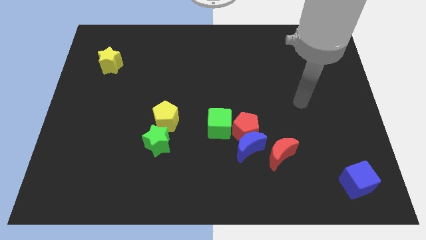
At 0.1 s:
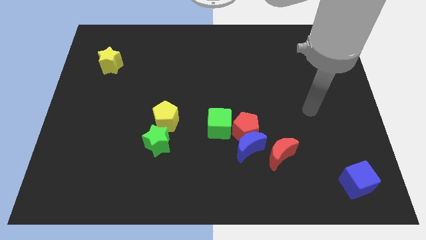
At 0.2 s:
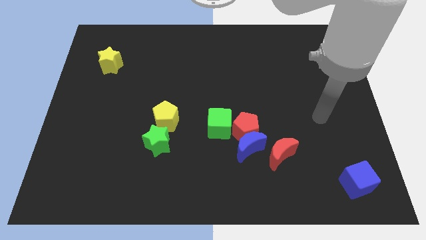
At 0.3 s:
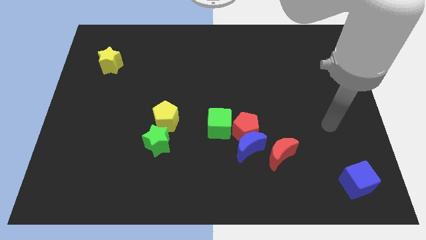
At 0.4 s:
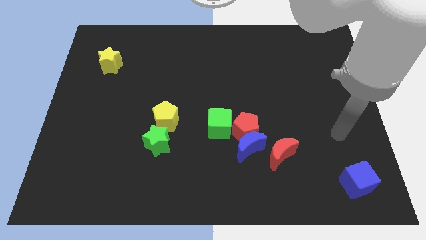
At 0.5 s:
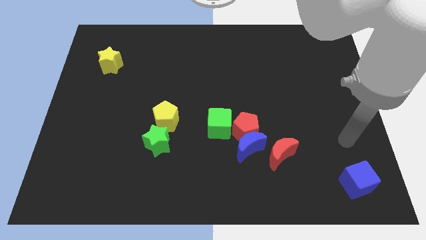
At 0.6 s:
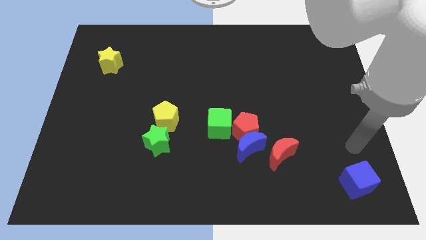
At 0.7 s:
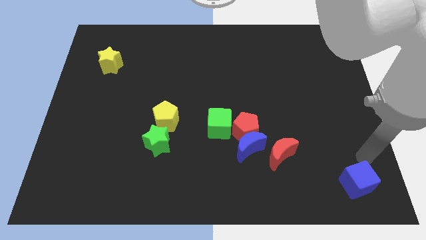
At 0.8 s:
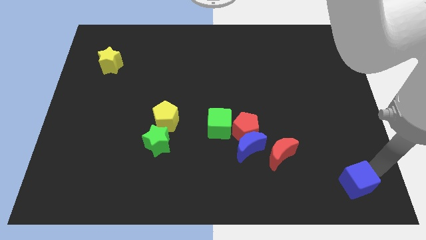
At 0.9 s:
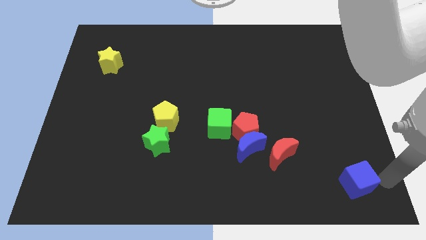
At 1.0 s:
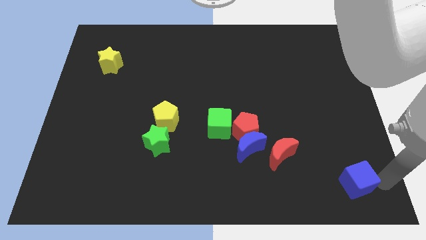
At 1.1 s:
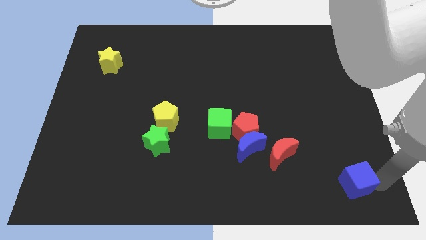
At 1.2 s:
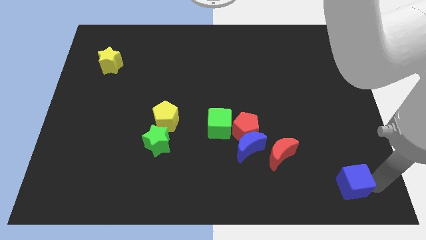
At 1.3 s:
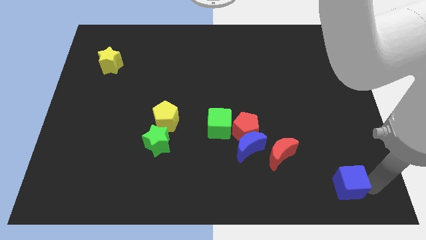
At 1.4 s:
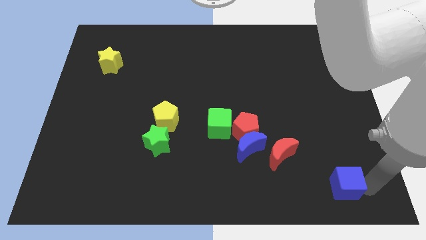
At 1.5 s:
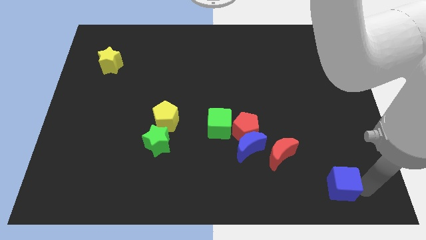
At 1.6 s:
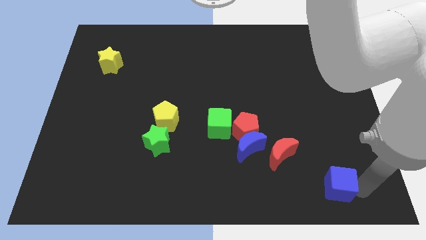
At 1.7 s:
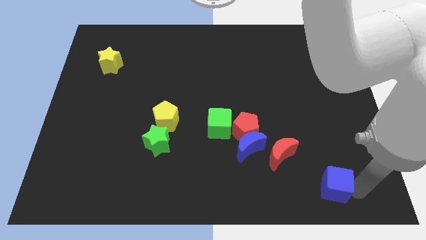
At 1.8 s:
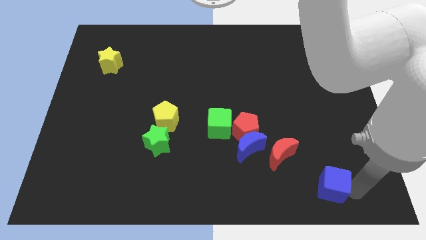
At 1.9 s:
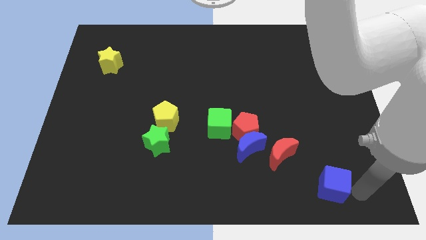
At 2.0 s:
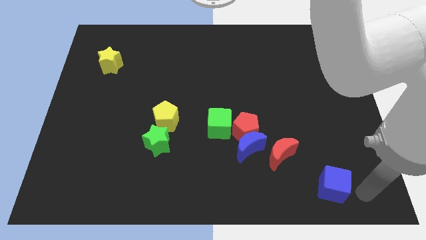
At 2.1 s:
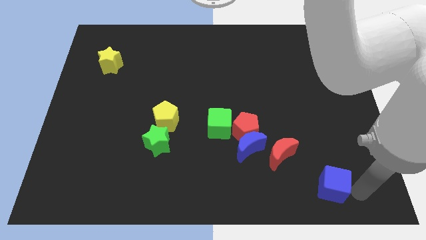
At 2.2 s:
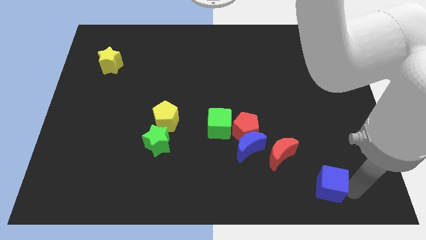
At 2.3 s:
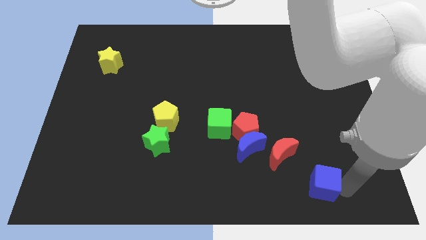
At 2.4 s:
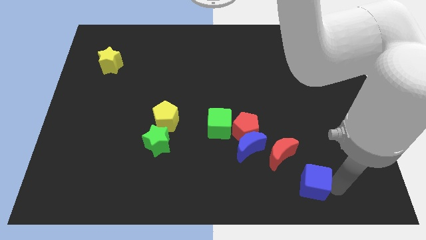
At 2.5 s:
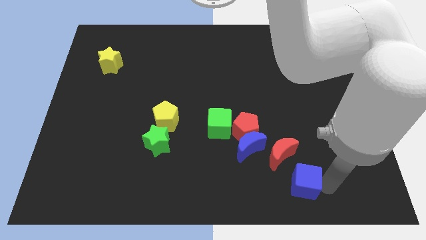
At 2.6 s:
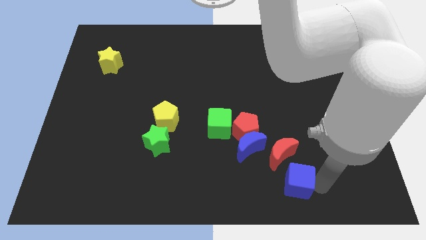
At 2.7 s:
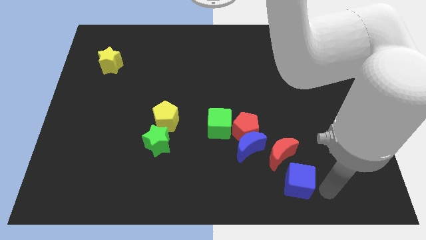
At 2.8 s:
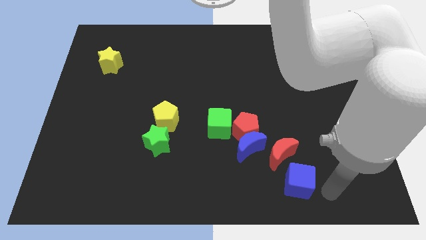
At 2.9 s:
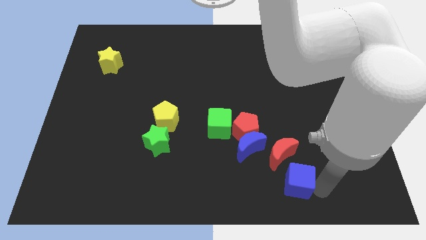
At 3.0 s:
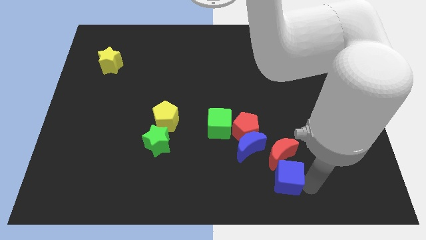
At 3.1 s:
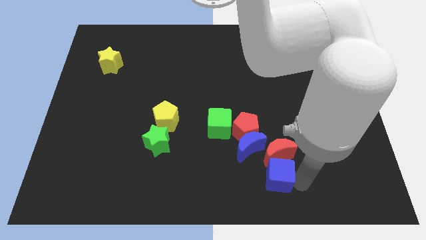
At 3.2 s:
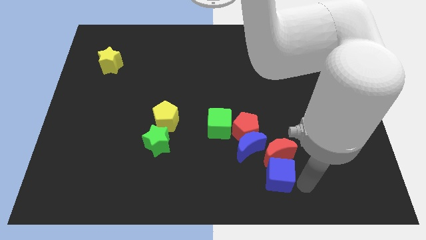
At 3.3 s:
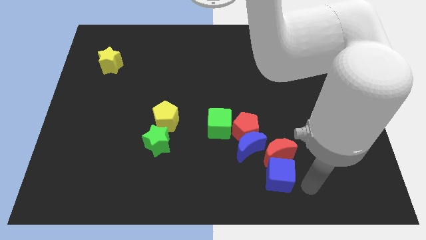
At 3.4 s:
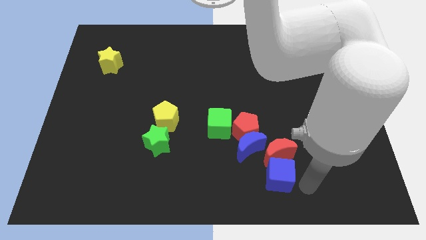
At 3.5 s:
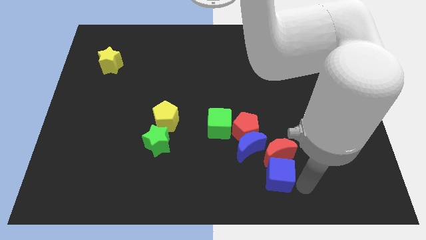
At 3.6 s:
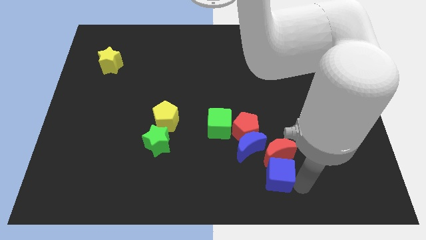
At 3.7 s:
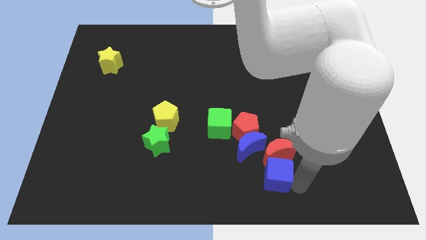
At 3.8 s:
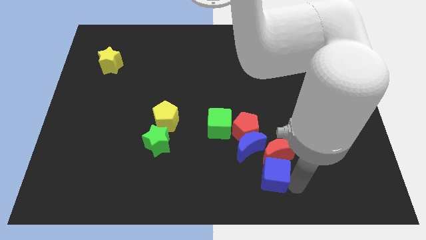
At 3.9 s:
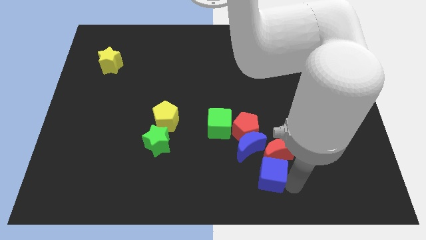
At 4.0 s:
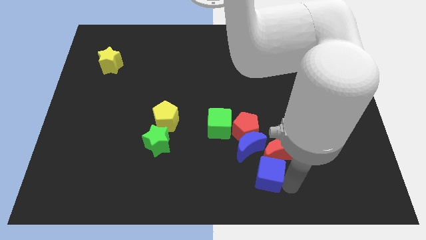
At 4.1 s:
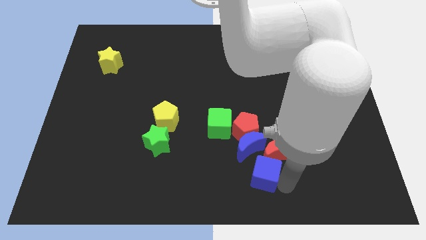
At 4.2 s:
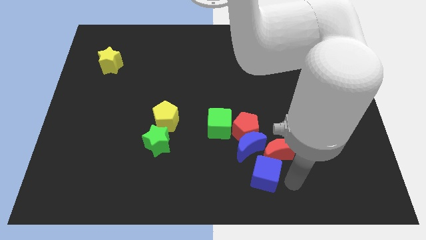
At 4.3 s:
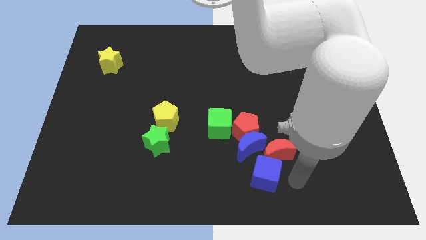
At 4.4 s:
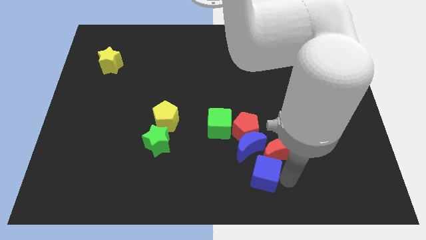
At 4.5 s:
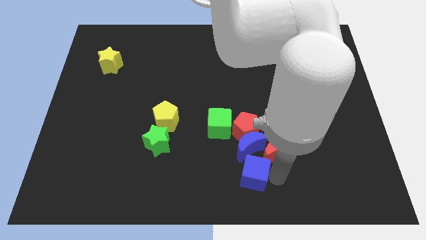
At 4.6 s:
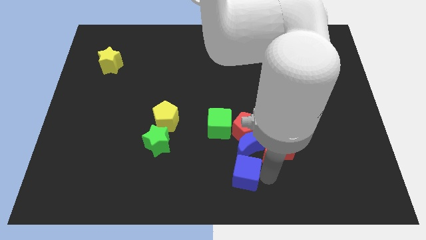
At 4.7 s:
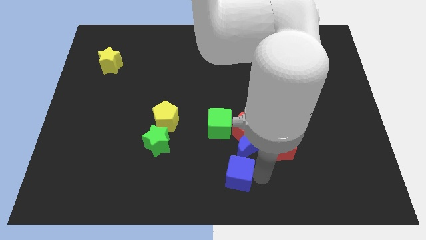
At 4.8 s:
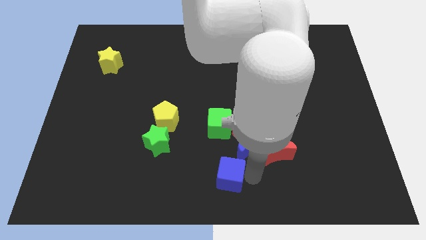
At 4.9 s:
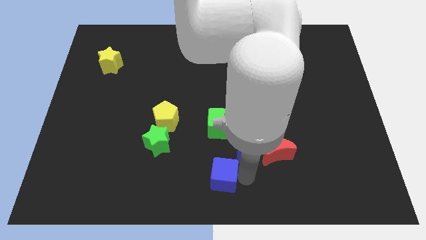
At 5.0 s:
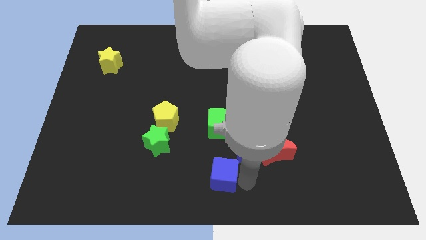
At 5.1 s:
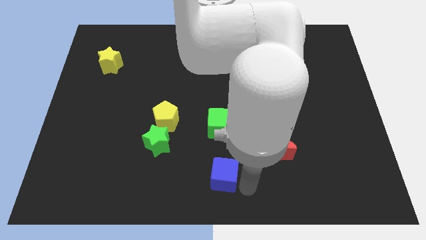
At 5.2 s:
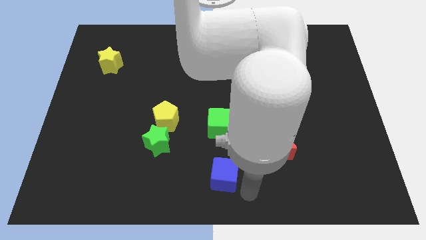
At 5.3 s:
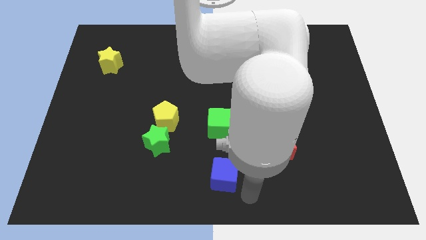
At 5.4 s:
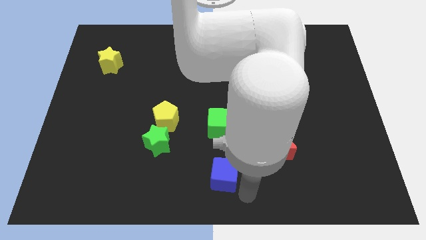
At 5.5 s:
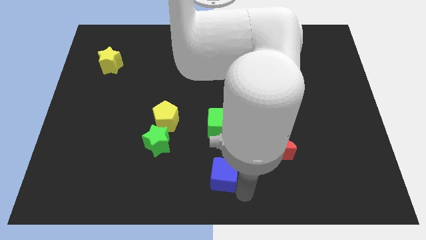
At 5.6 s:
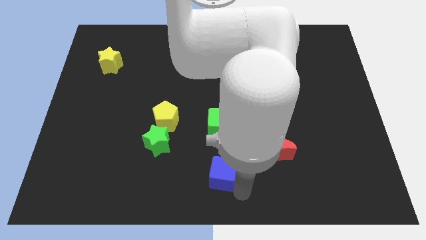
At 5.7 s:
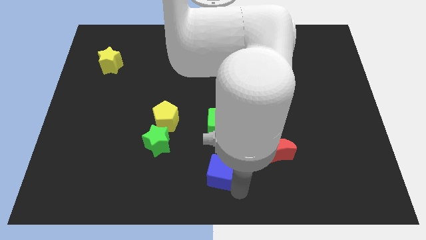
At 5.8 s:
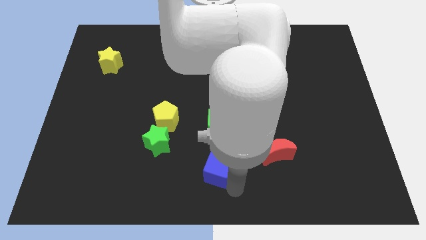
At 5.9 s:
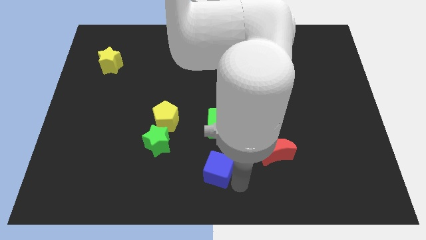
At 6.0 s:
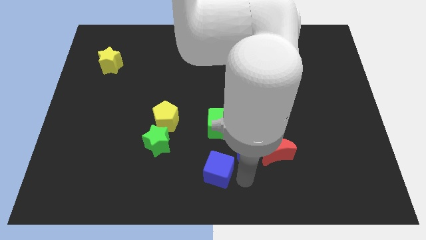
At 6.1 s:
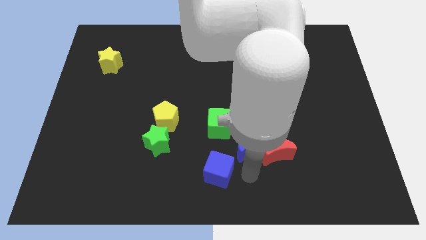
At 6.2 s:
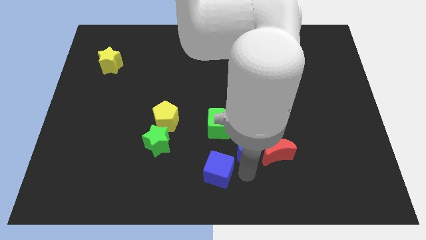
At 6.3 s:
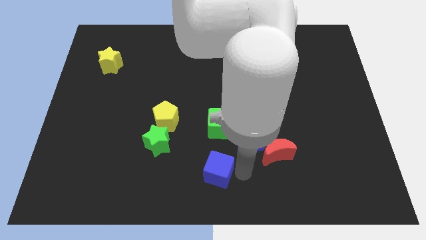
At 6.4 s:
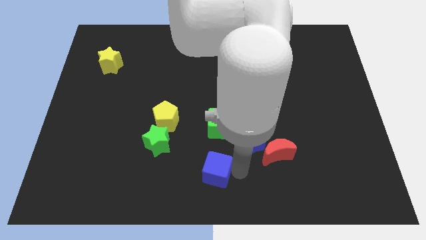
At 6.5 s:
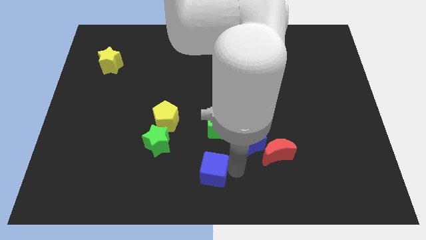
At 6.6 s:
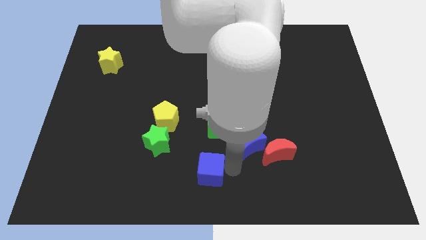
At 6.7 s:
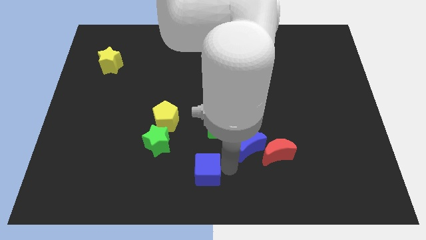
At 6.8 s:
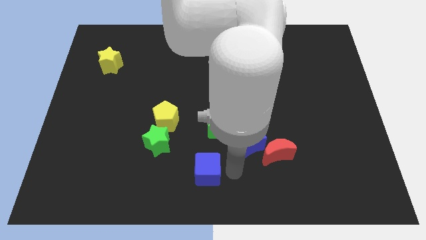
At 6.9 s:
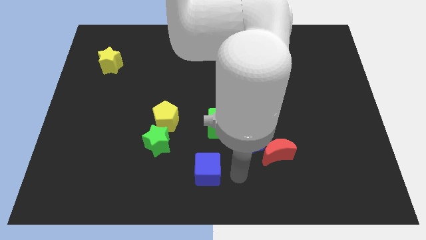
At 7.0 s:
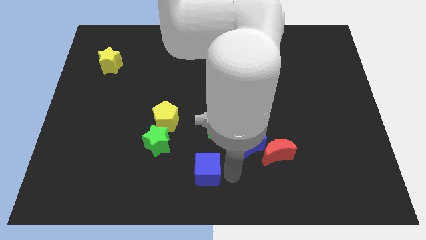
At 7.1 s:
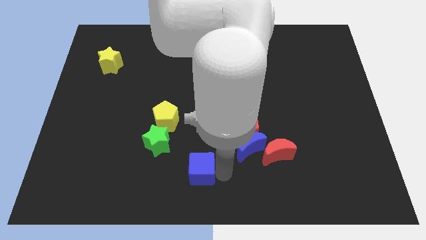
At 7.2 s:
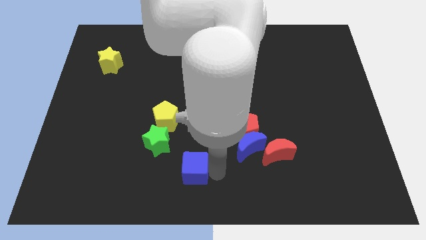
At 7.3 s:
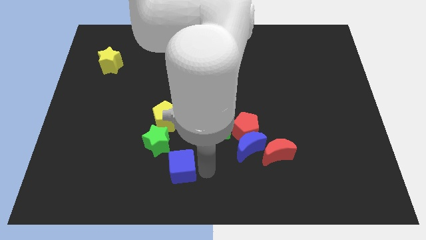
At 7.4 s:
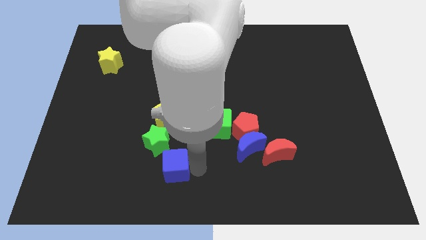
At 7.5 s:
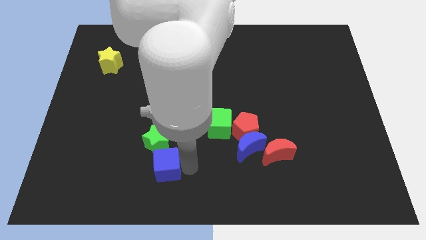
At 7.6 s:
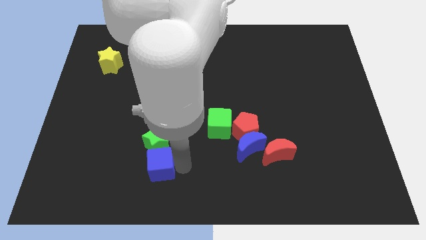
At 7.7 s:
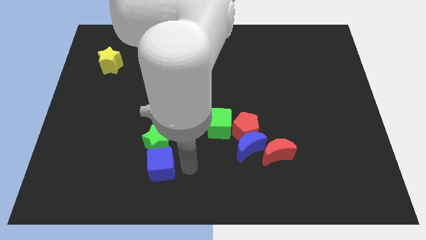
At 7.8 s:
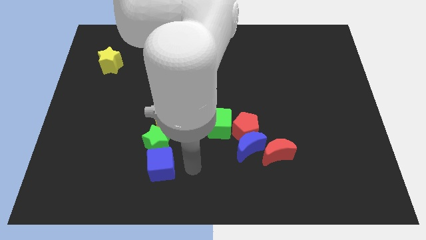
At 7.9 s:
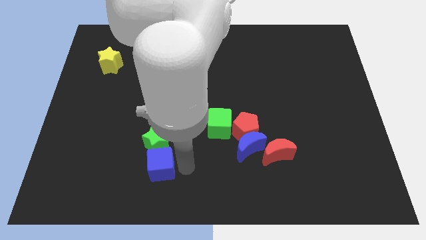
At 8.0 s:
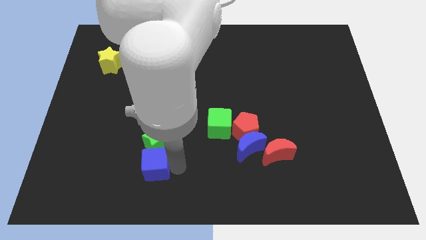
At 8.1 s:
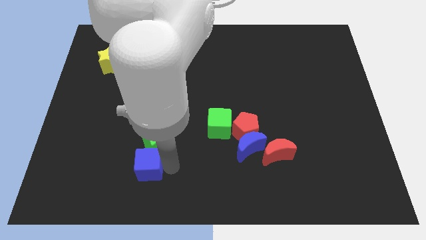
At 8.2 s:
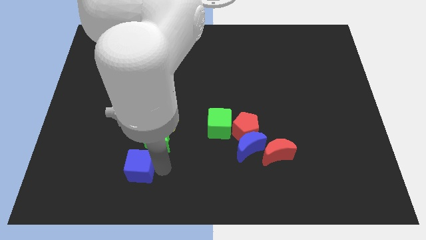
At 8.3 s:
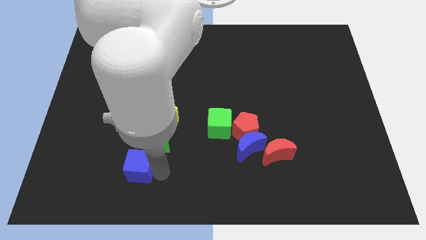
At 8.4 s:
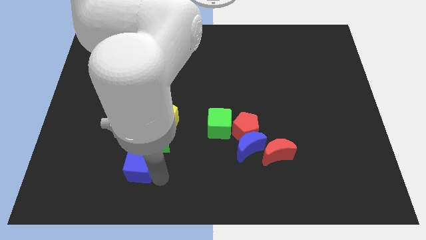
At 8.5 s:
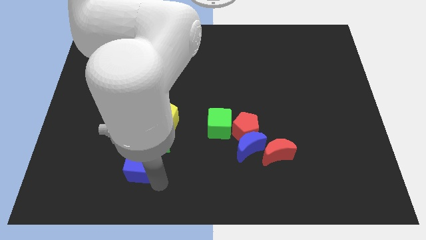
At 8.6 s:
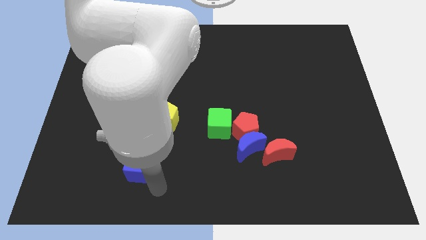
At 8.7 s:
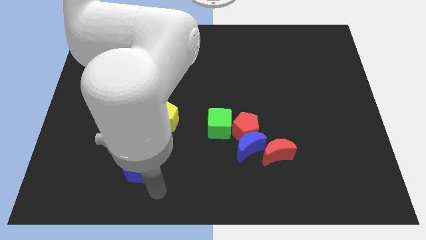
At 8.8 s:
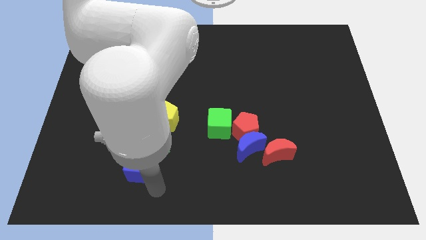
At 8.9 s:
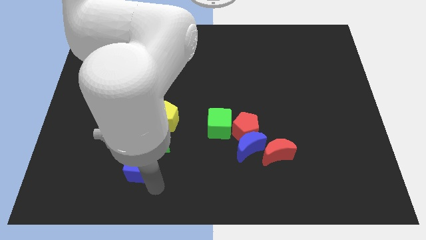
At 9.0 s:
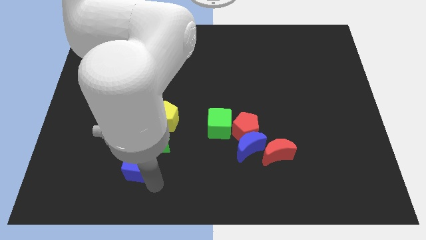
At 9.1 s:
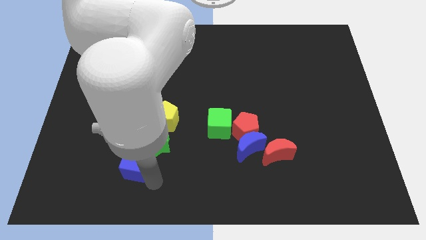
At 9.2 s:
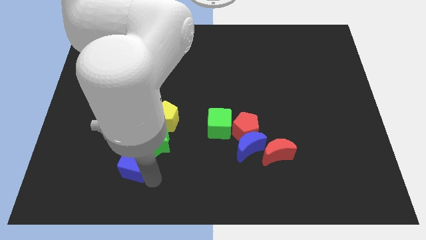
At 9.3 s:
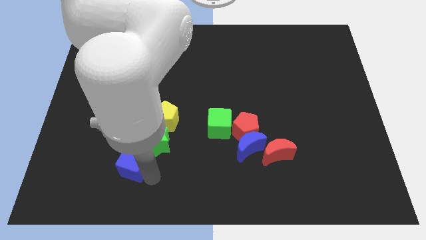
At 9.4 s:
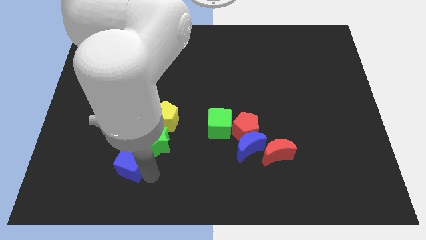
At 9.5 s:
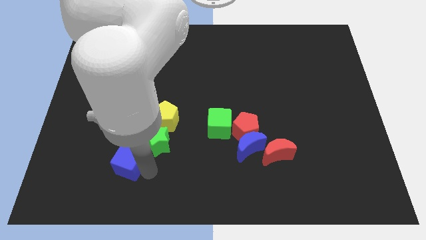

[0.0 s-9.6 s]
push the blue cube to the left side of the green star
